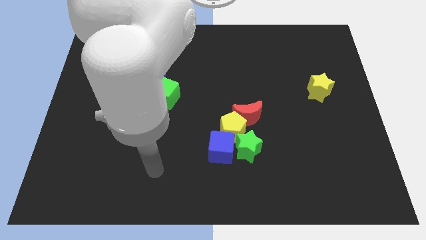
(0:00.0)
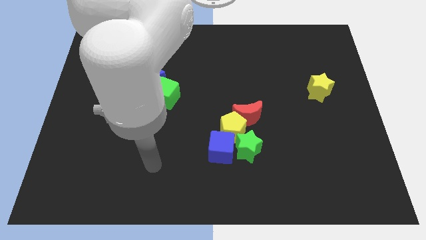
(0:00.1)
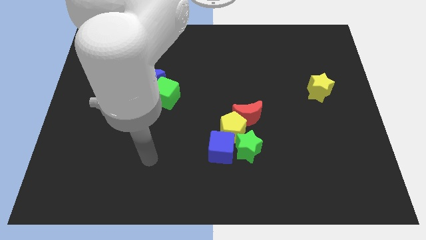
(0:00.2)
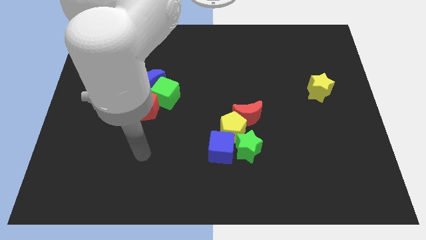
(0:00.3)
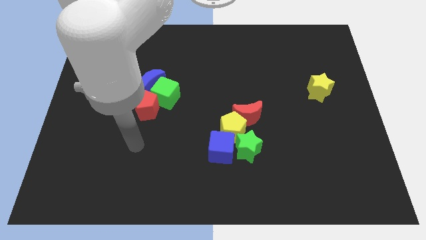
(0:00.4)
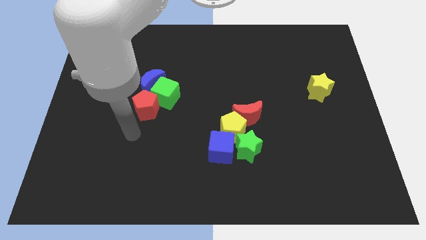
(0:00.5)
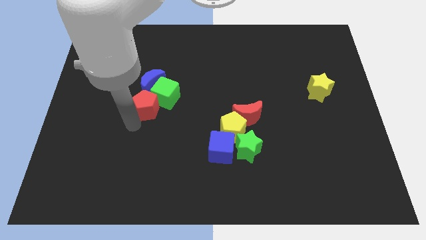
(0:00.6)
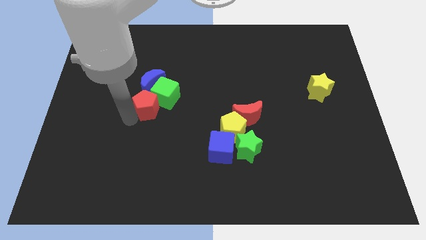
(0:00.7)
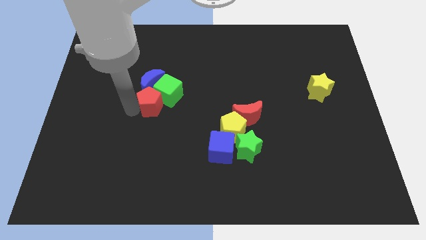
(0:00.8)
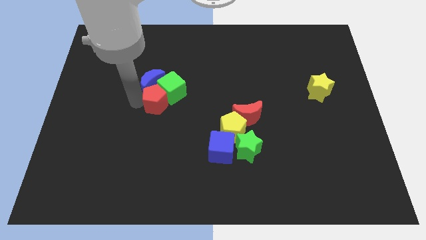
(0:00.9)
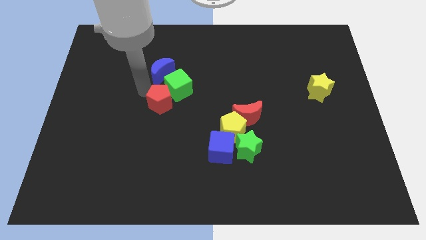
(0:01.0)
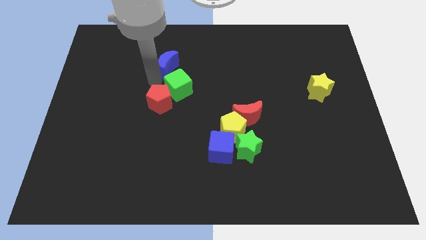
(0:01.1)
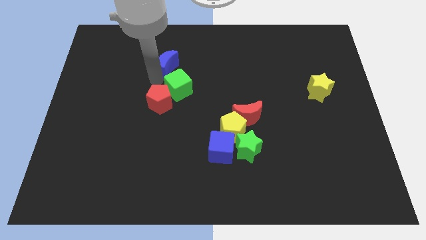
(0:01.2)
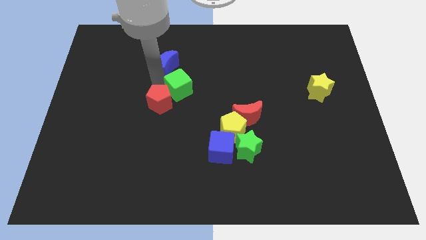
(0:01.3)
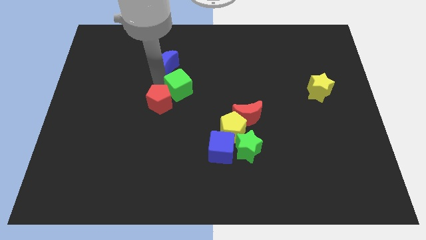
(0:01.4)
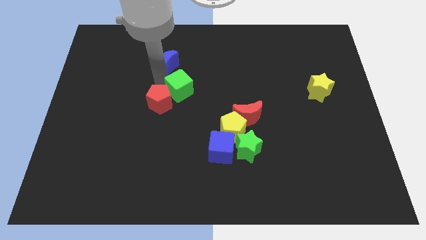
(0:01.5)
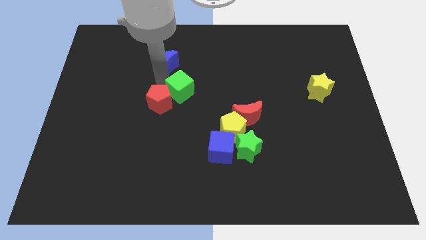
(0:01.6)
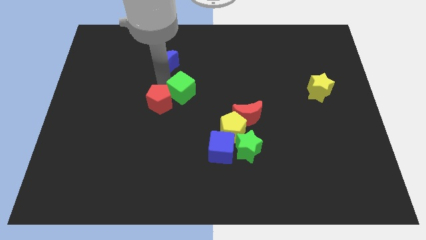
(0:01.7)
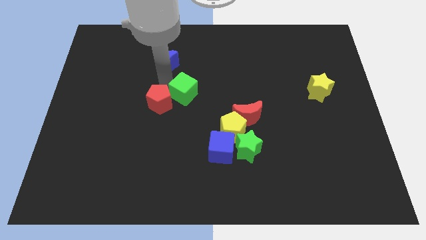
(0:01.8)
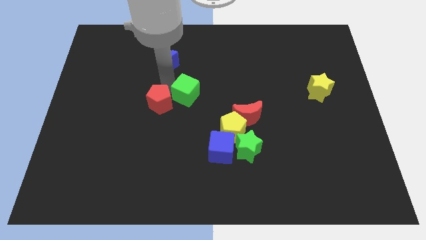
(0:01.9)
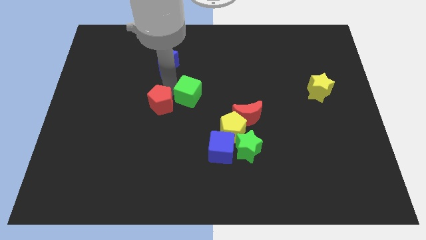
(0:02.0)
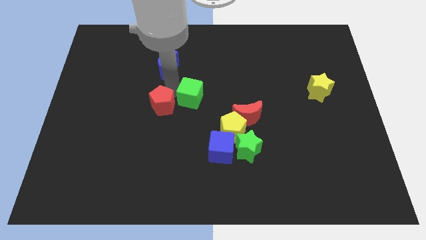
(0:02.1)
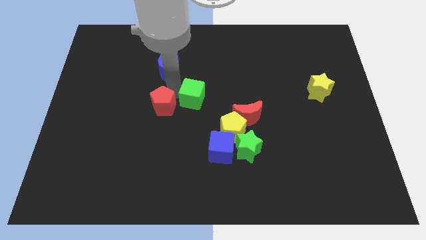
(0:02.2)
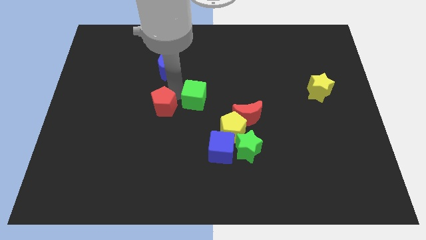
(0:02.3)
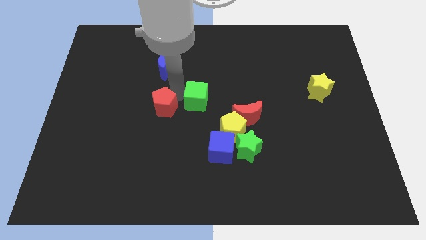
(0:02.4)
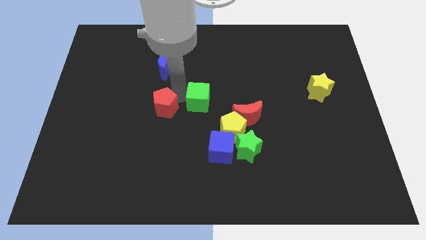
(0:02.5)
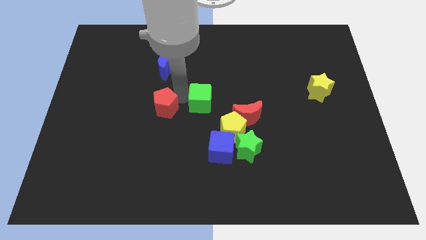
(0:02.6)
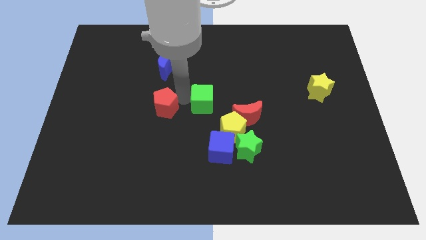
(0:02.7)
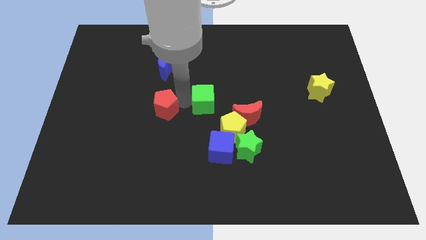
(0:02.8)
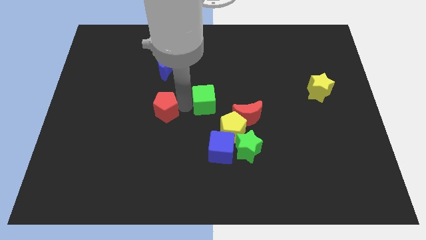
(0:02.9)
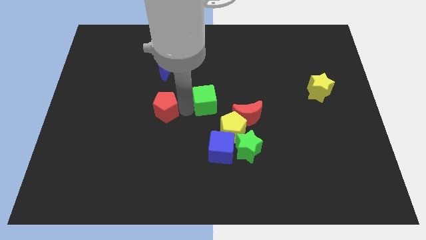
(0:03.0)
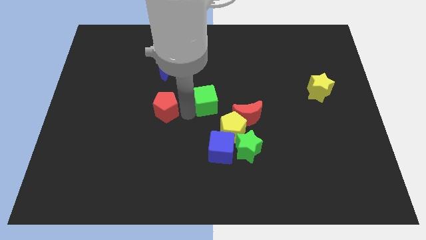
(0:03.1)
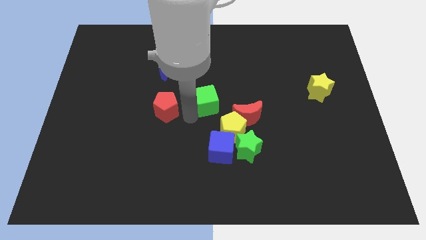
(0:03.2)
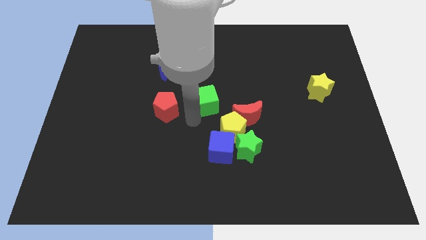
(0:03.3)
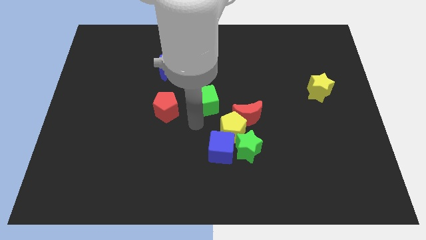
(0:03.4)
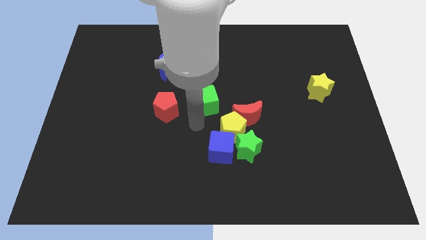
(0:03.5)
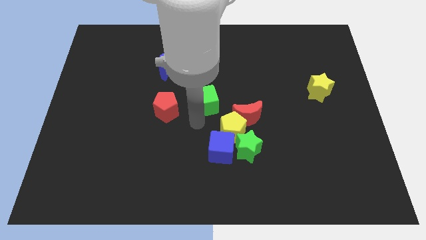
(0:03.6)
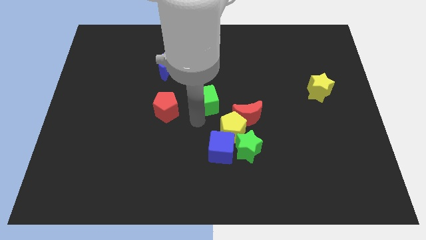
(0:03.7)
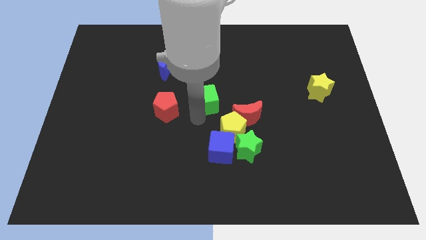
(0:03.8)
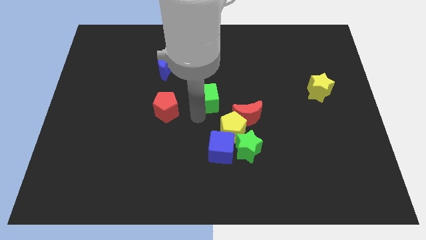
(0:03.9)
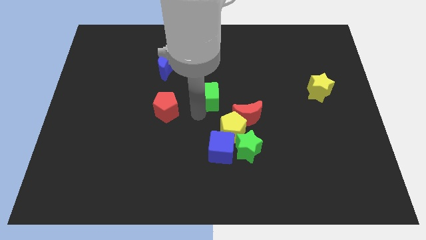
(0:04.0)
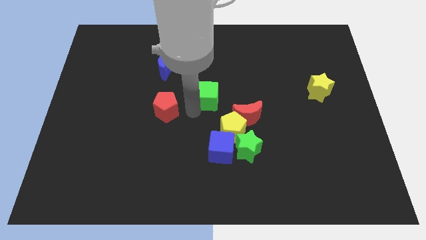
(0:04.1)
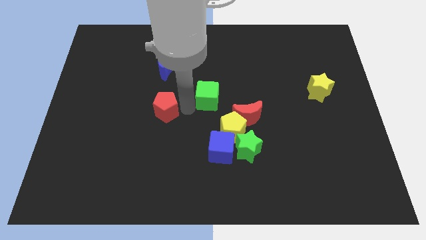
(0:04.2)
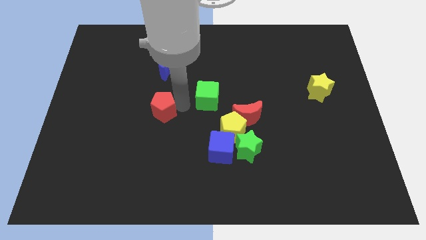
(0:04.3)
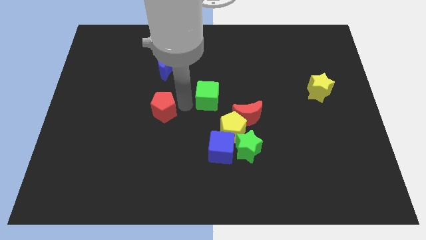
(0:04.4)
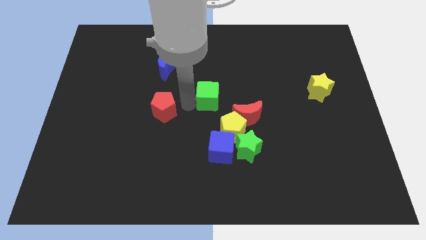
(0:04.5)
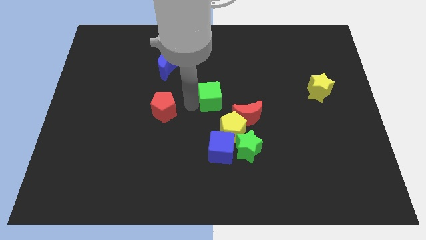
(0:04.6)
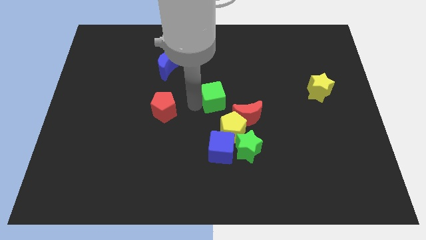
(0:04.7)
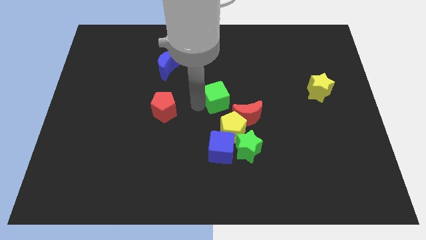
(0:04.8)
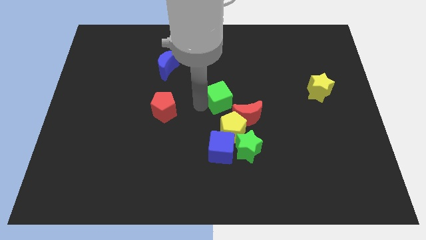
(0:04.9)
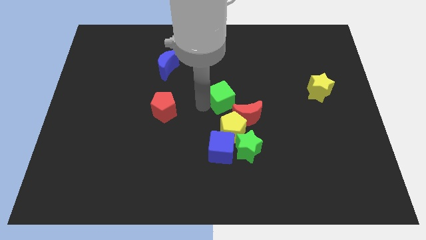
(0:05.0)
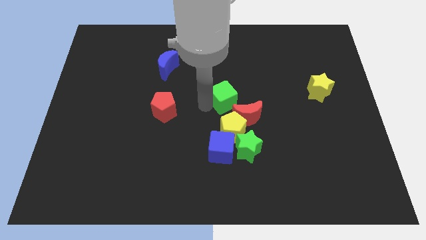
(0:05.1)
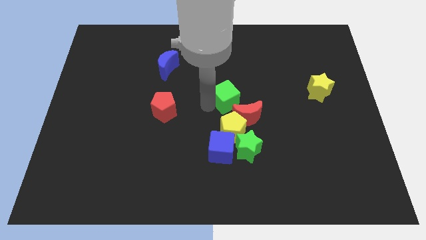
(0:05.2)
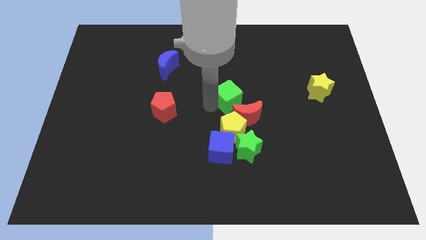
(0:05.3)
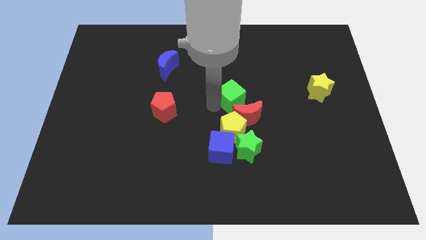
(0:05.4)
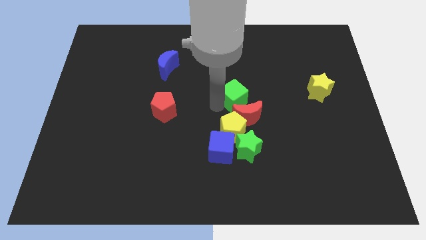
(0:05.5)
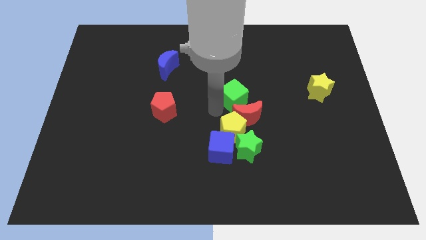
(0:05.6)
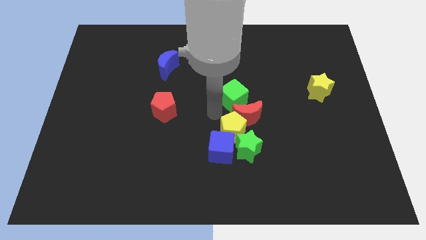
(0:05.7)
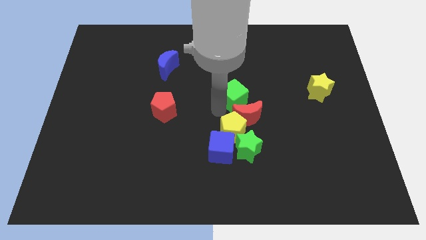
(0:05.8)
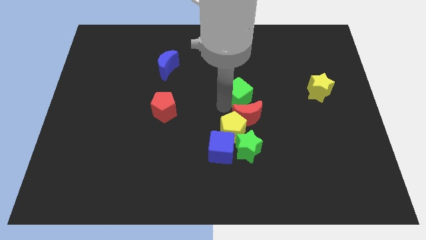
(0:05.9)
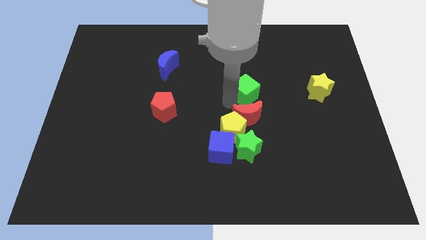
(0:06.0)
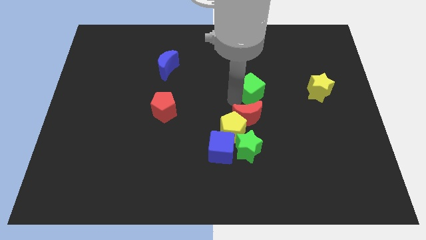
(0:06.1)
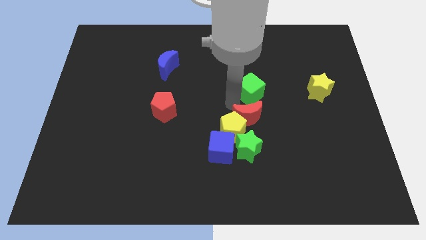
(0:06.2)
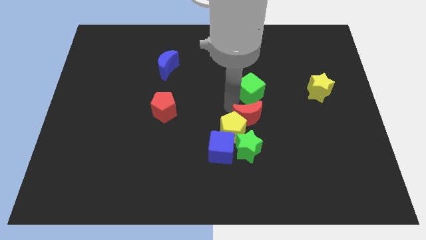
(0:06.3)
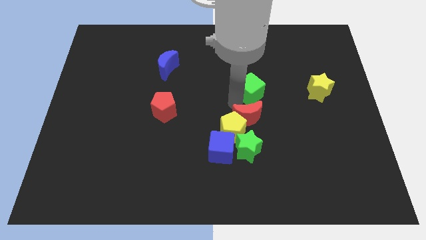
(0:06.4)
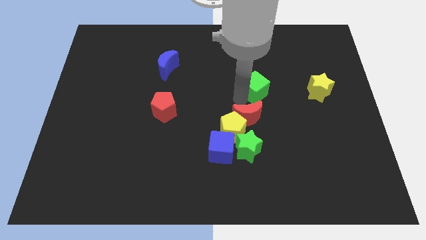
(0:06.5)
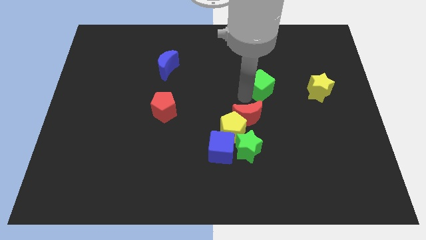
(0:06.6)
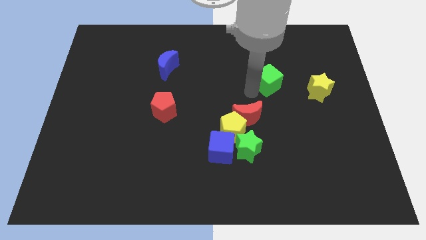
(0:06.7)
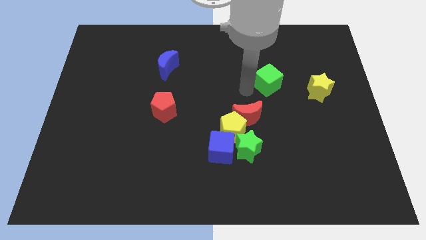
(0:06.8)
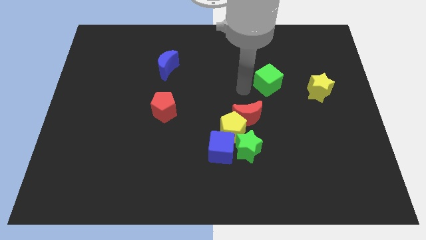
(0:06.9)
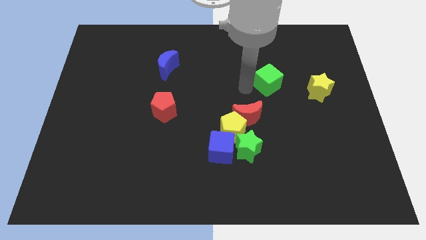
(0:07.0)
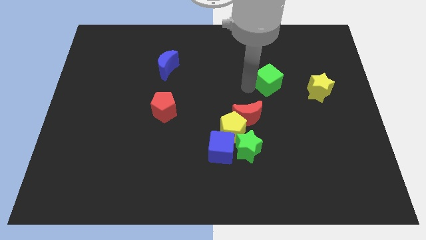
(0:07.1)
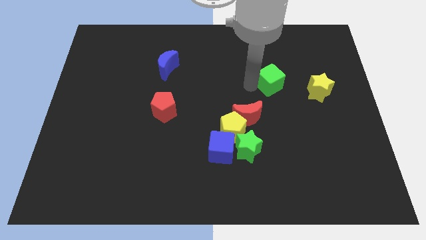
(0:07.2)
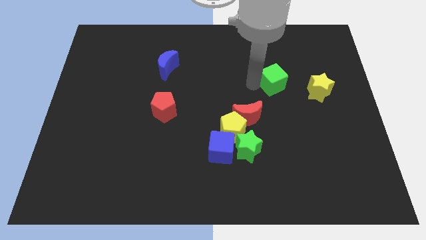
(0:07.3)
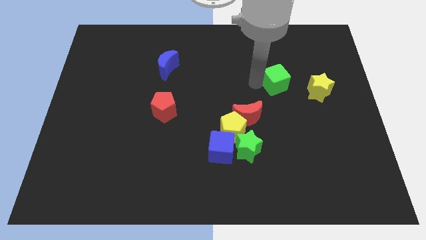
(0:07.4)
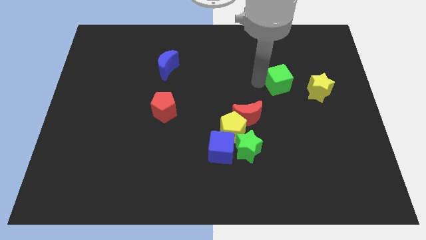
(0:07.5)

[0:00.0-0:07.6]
slide the green cube to the top left of the yellow star

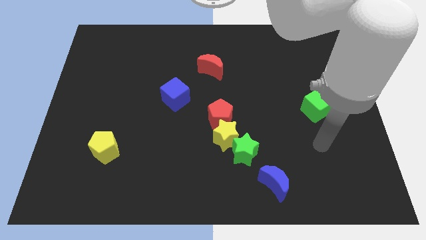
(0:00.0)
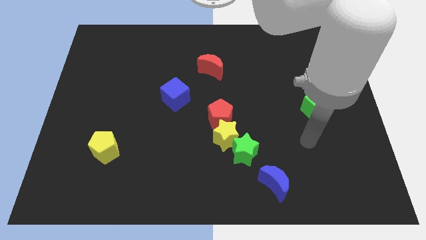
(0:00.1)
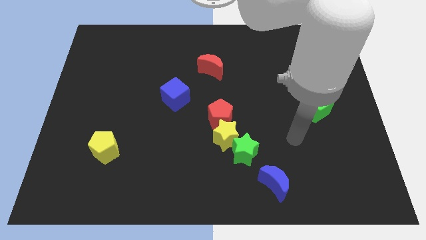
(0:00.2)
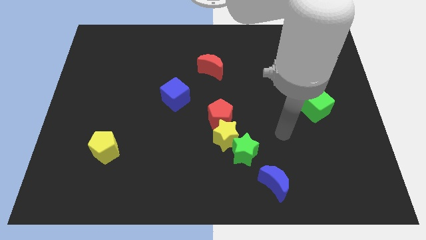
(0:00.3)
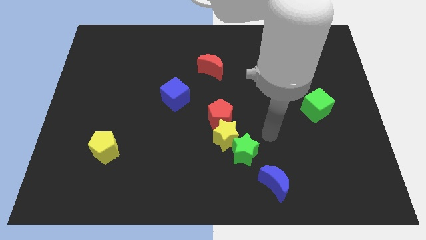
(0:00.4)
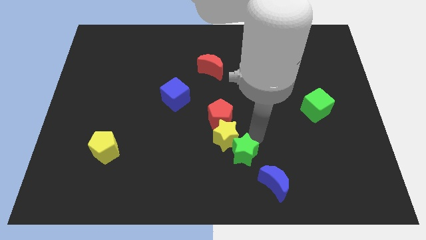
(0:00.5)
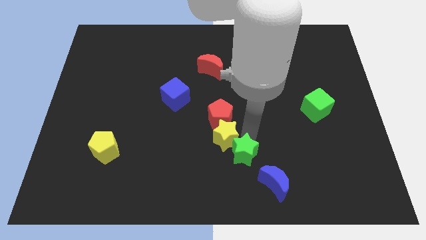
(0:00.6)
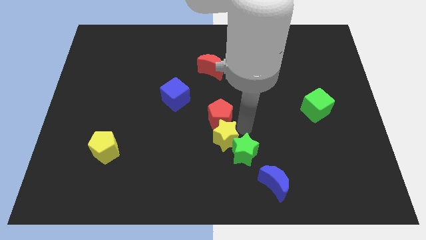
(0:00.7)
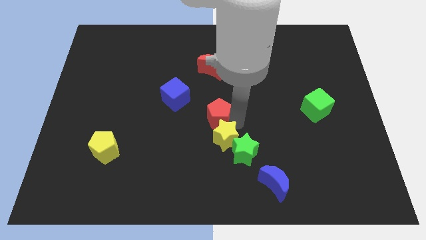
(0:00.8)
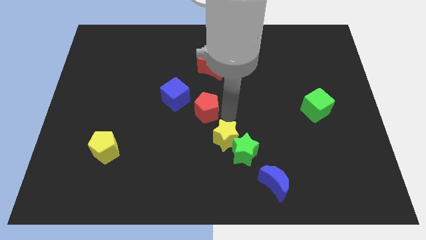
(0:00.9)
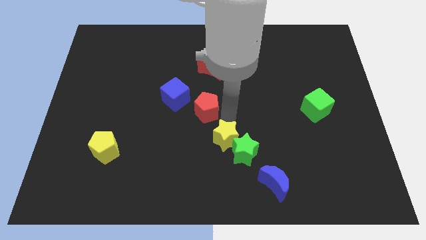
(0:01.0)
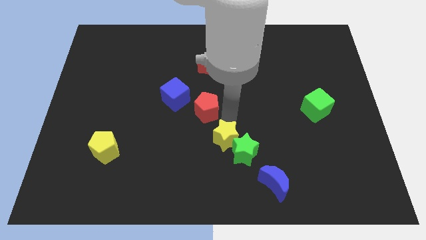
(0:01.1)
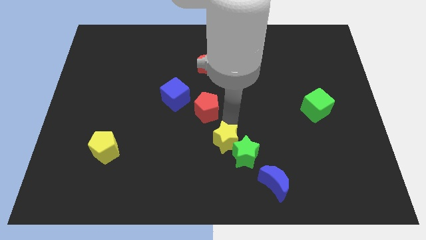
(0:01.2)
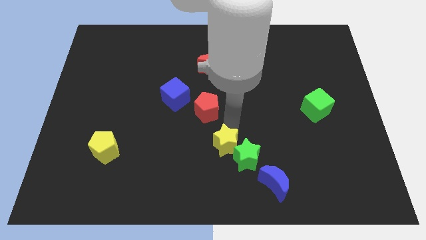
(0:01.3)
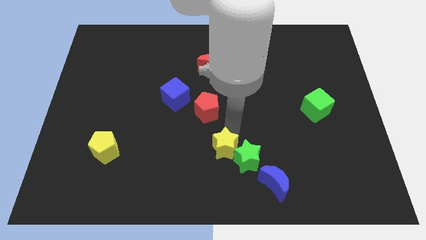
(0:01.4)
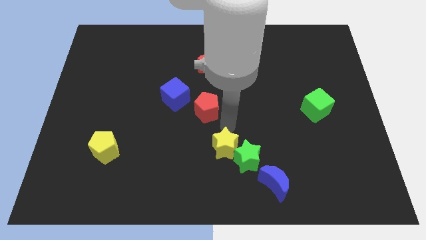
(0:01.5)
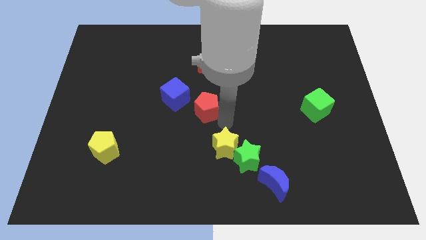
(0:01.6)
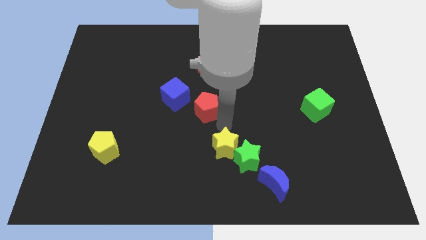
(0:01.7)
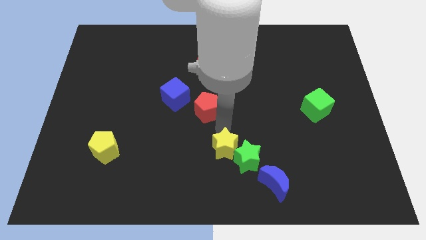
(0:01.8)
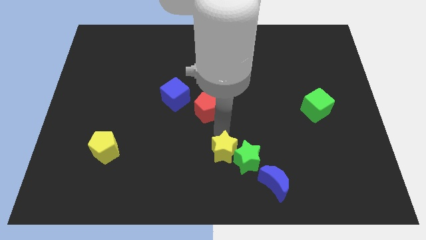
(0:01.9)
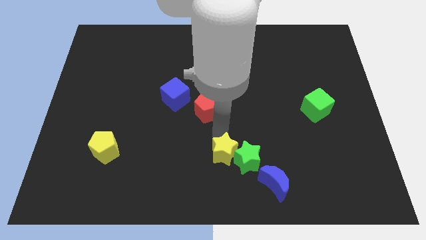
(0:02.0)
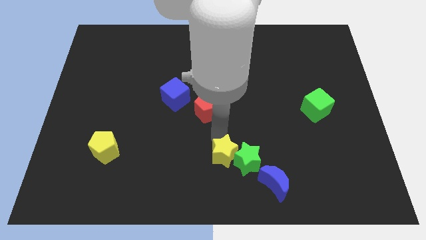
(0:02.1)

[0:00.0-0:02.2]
move the yellow star to the bottom left of the green star
